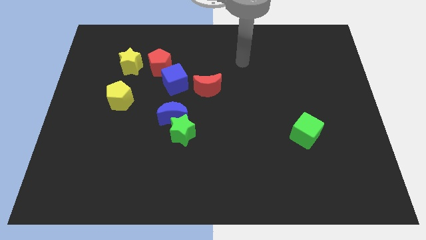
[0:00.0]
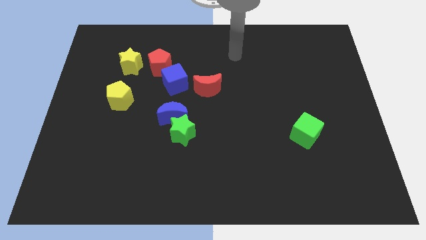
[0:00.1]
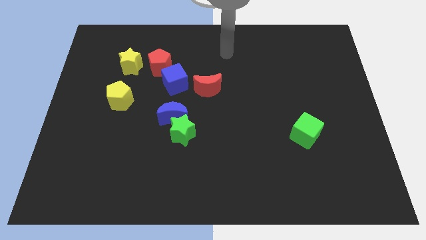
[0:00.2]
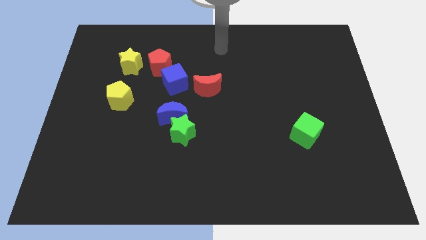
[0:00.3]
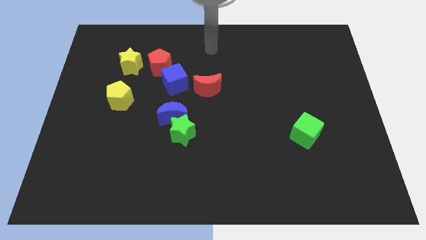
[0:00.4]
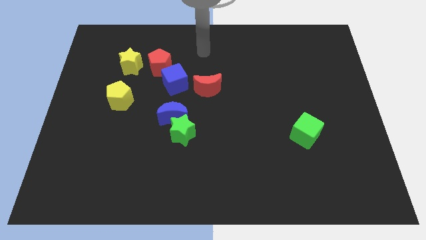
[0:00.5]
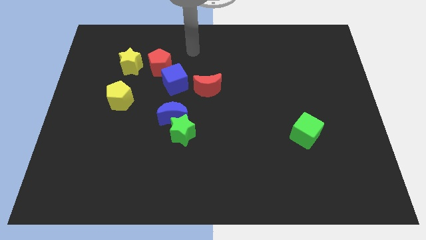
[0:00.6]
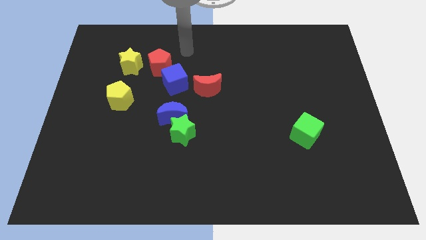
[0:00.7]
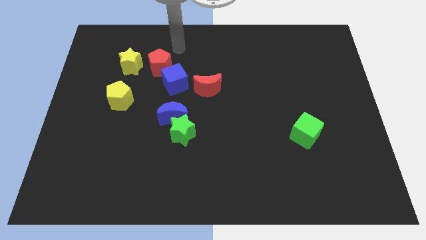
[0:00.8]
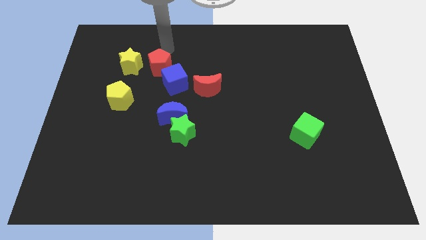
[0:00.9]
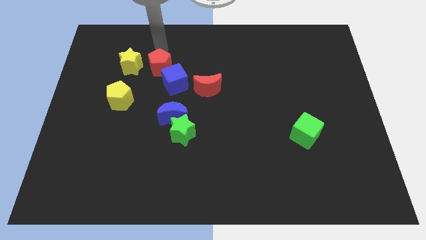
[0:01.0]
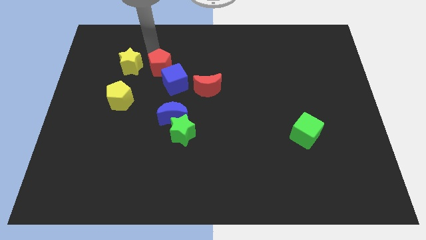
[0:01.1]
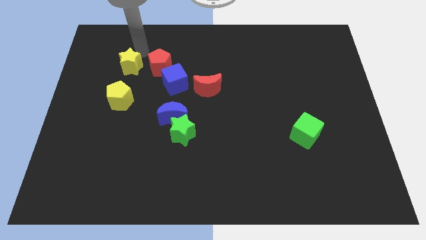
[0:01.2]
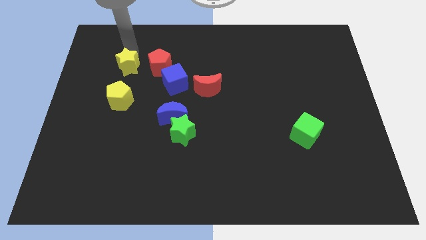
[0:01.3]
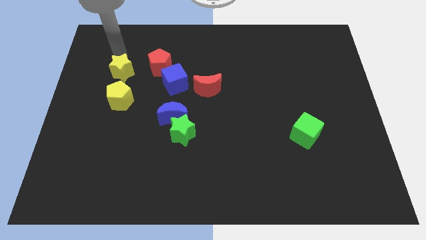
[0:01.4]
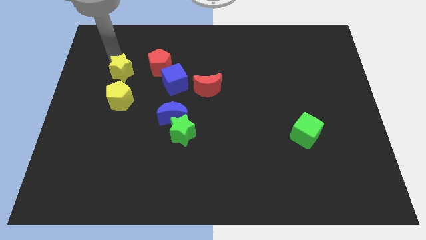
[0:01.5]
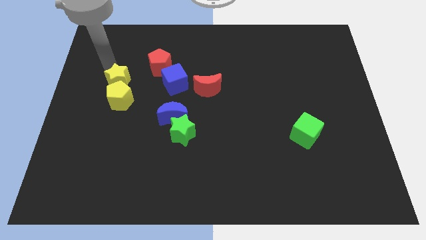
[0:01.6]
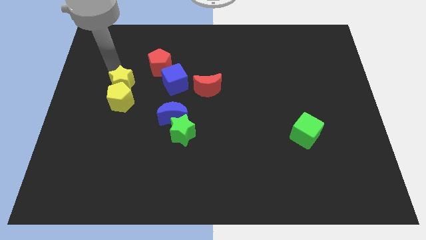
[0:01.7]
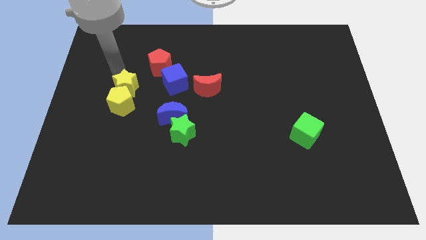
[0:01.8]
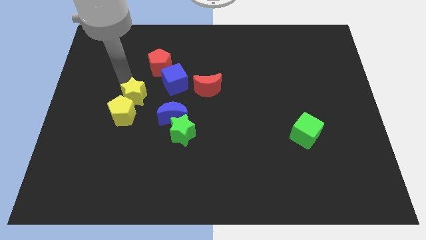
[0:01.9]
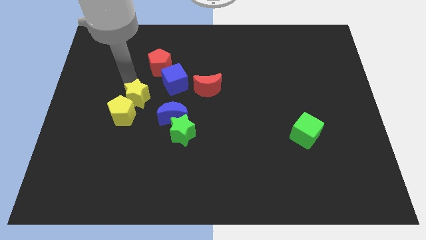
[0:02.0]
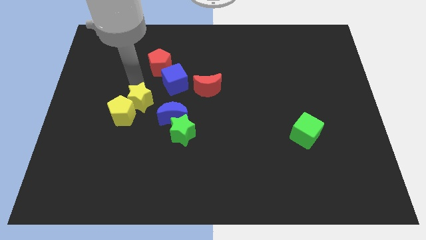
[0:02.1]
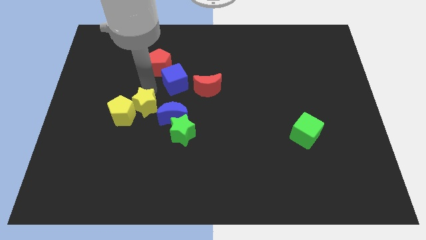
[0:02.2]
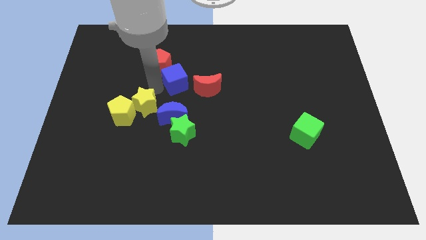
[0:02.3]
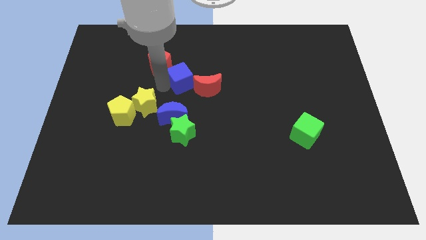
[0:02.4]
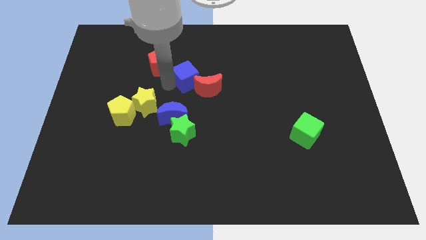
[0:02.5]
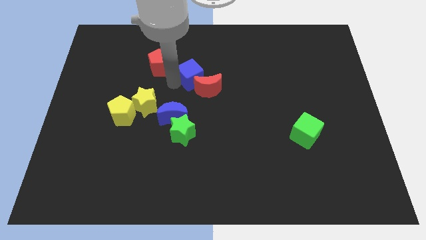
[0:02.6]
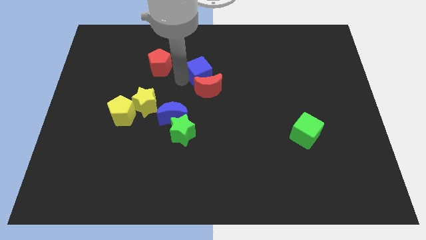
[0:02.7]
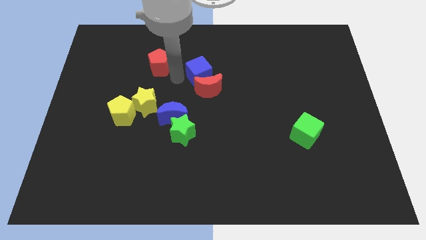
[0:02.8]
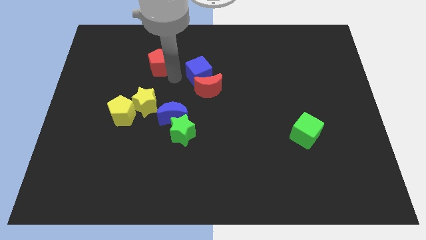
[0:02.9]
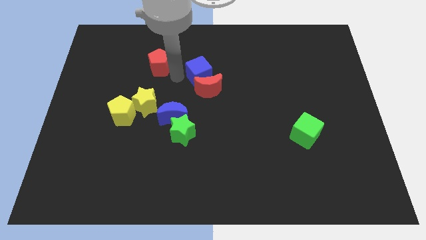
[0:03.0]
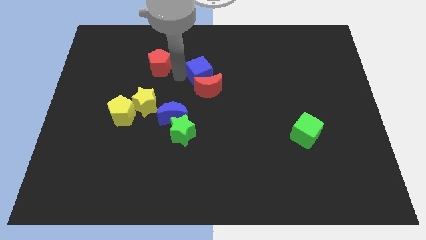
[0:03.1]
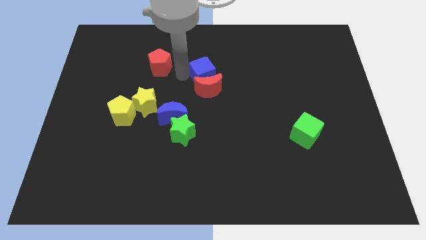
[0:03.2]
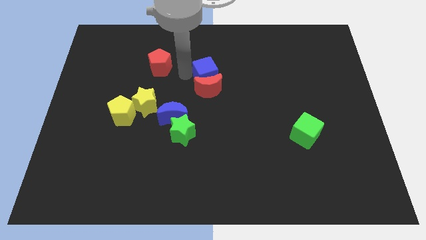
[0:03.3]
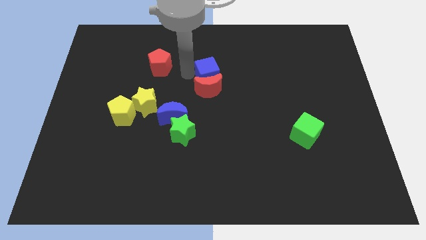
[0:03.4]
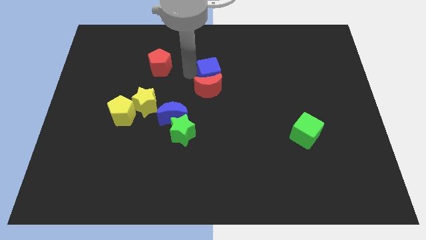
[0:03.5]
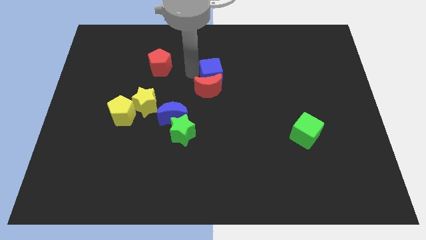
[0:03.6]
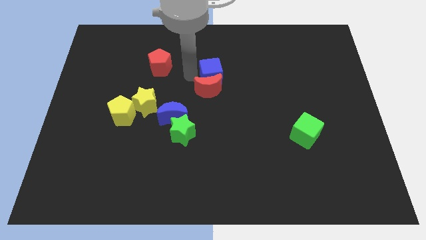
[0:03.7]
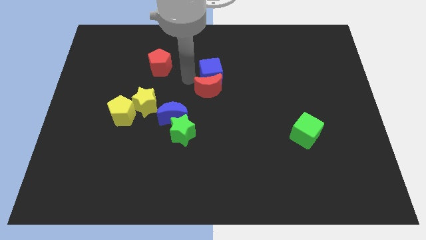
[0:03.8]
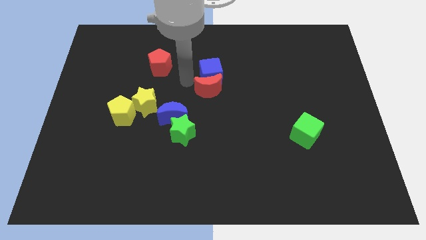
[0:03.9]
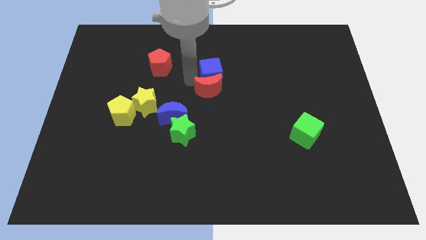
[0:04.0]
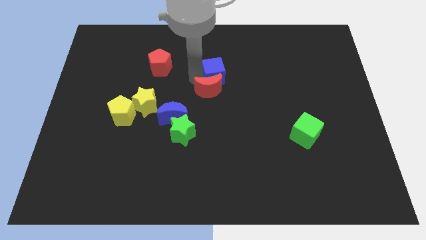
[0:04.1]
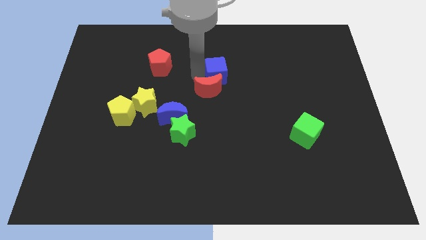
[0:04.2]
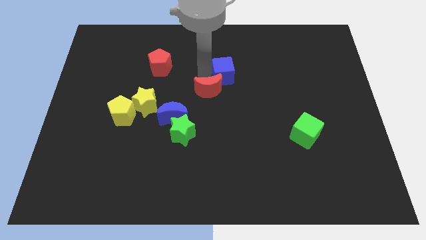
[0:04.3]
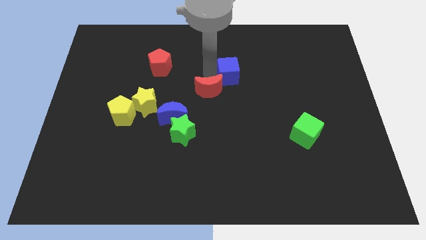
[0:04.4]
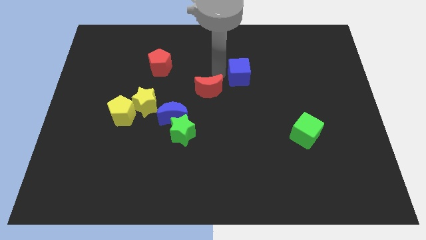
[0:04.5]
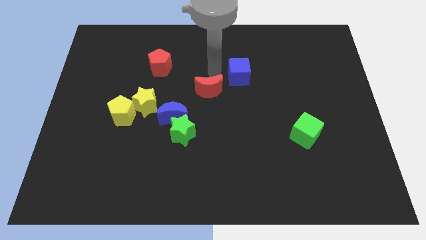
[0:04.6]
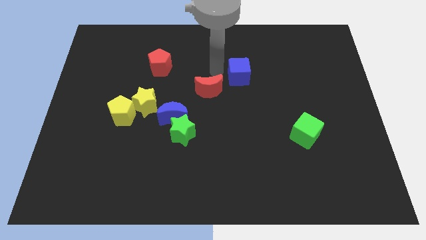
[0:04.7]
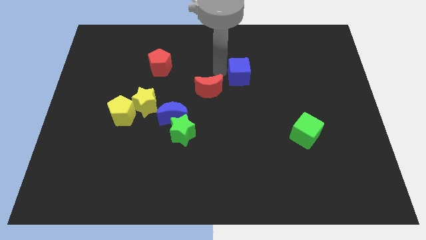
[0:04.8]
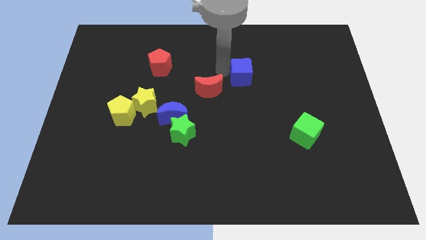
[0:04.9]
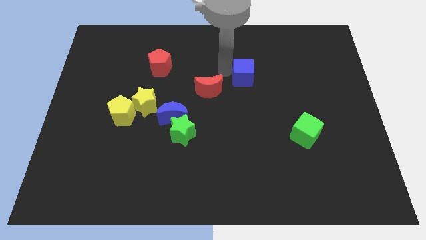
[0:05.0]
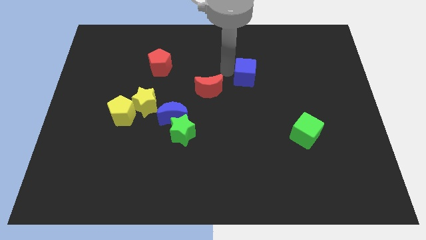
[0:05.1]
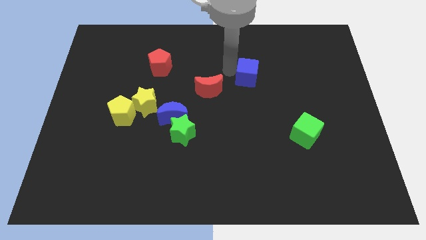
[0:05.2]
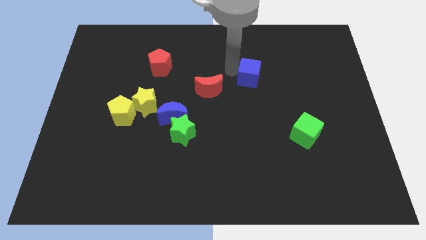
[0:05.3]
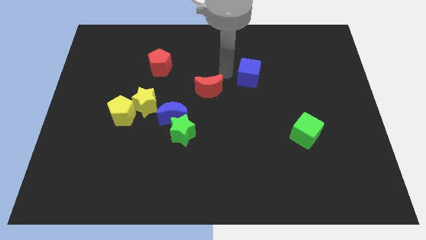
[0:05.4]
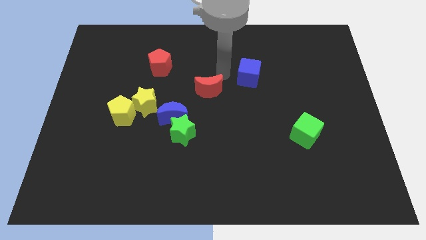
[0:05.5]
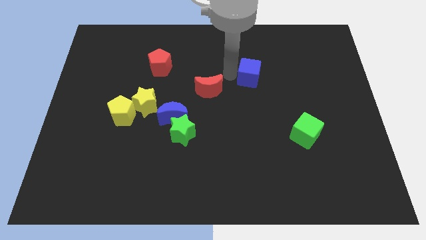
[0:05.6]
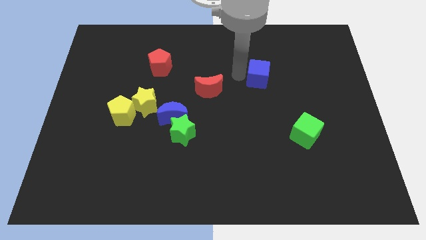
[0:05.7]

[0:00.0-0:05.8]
move the blue cube to the right

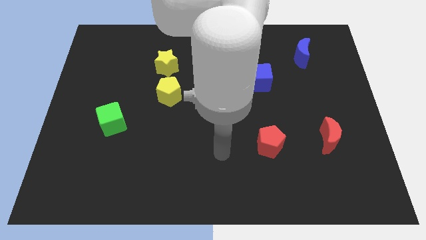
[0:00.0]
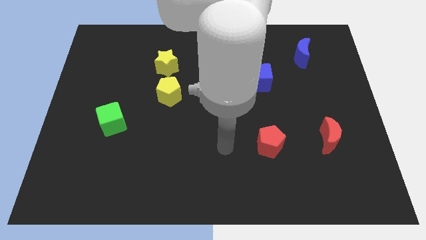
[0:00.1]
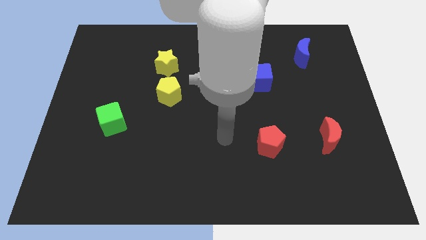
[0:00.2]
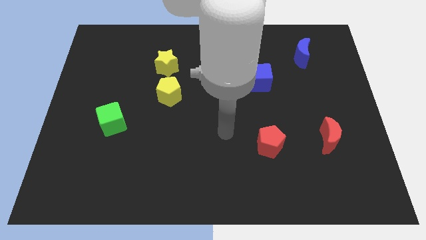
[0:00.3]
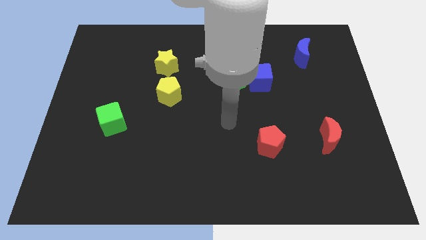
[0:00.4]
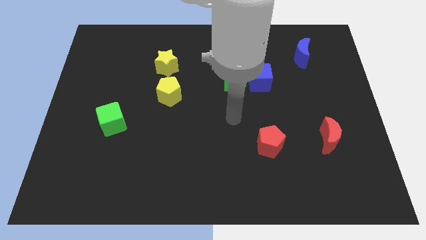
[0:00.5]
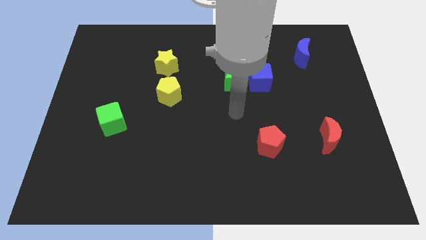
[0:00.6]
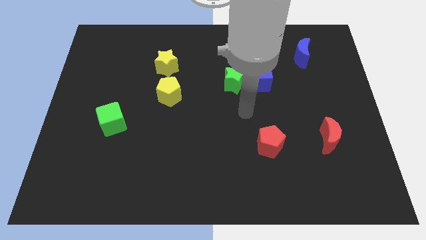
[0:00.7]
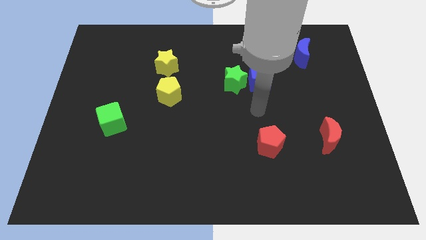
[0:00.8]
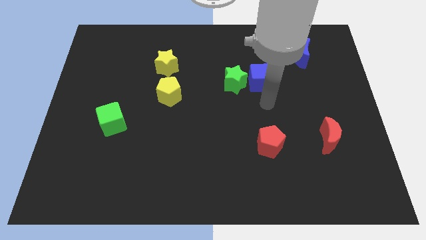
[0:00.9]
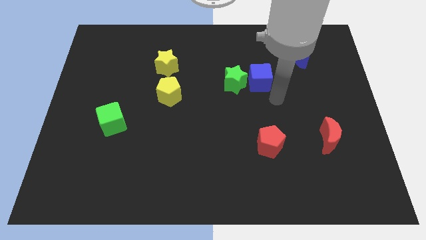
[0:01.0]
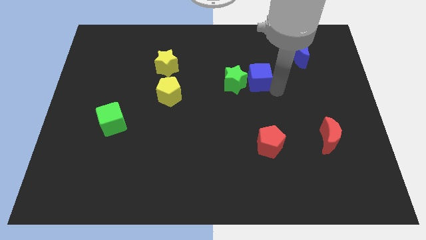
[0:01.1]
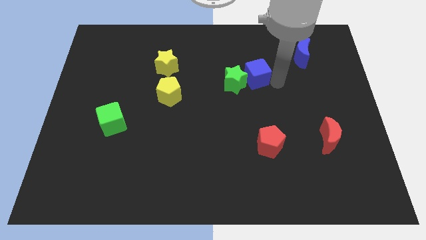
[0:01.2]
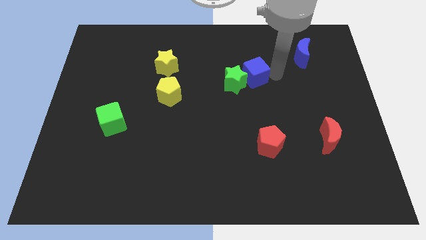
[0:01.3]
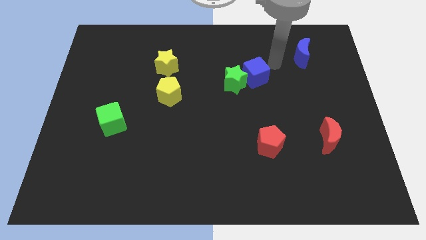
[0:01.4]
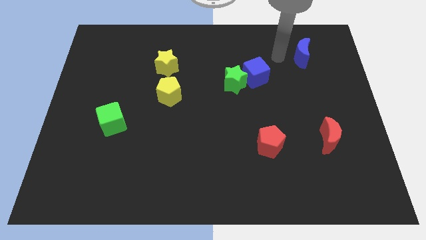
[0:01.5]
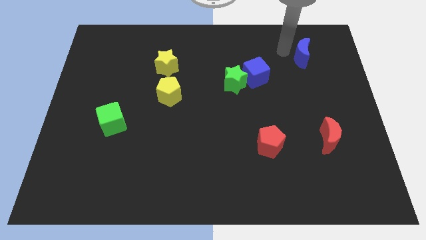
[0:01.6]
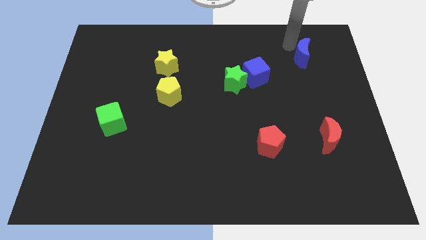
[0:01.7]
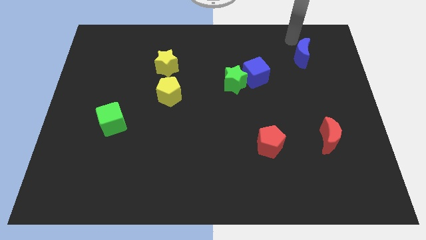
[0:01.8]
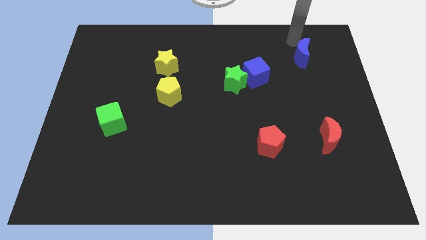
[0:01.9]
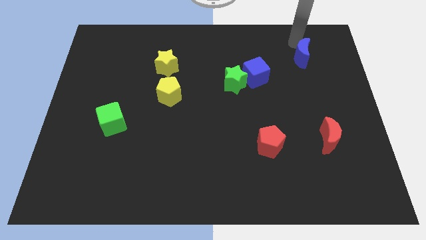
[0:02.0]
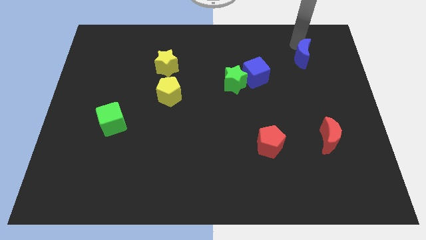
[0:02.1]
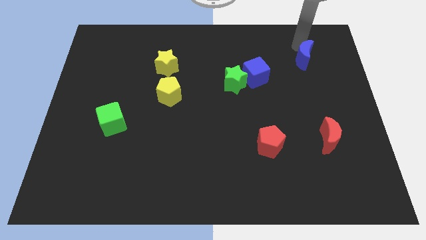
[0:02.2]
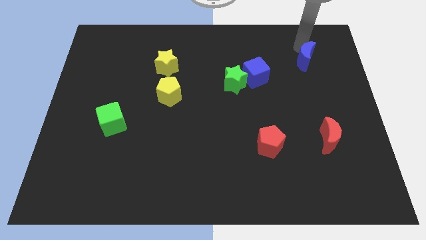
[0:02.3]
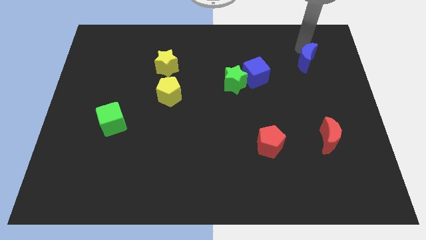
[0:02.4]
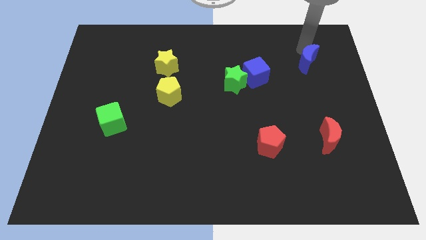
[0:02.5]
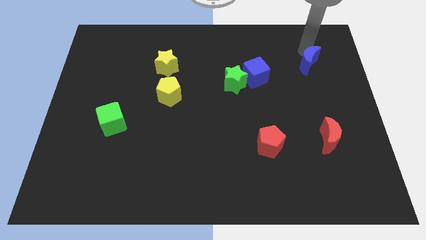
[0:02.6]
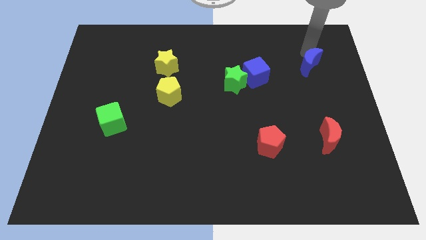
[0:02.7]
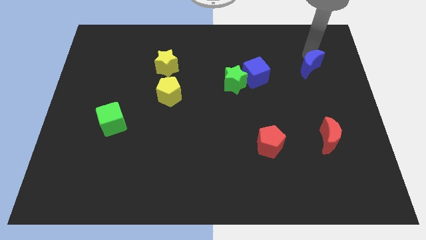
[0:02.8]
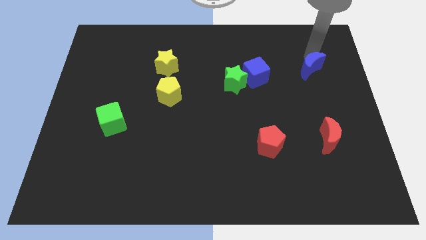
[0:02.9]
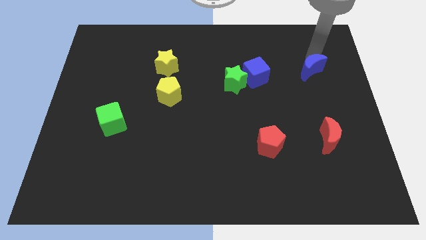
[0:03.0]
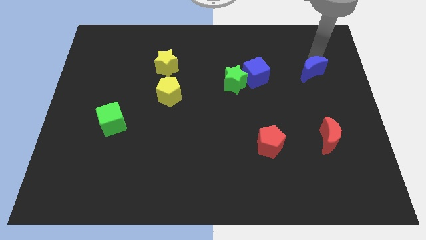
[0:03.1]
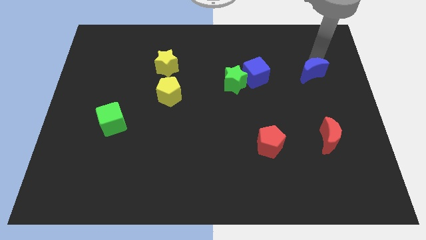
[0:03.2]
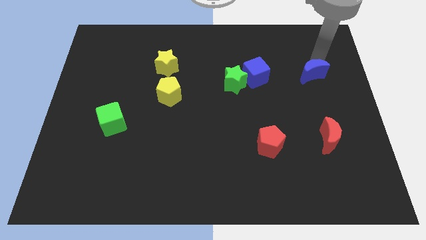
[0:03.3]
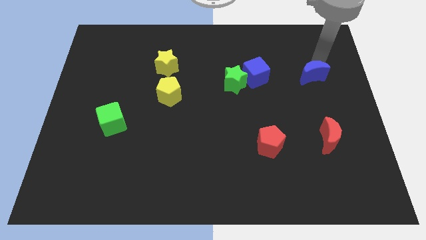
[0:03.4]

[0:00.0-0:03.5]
slightly push the blue moon down
